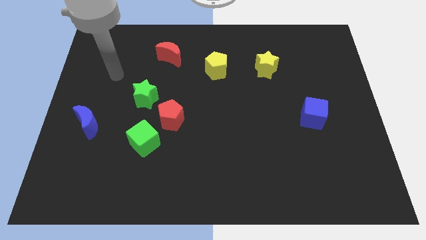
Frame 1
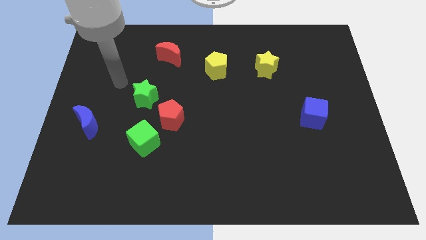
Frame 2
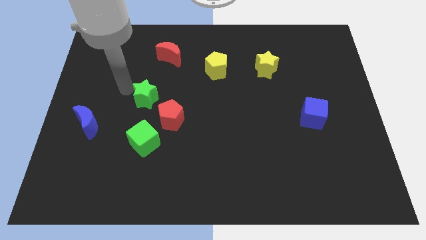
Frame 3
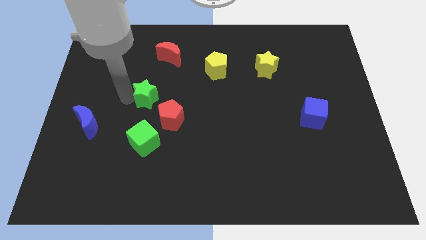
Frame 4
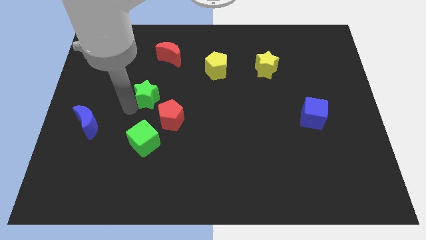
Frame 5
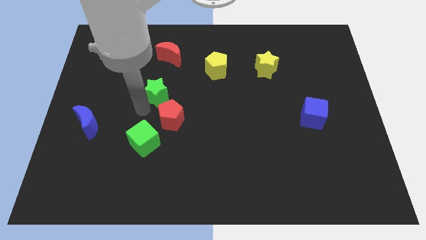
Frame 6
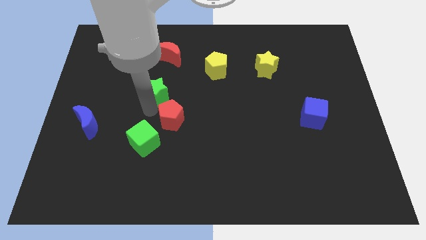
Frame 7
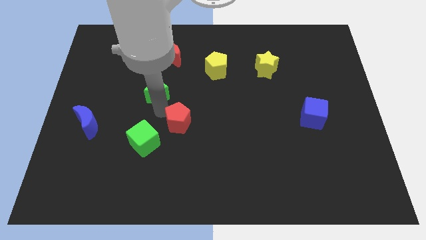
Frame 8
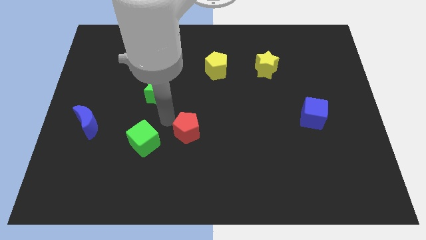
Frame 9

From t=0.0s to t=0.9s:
separate the green cube from the red pentagon

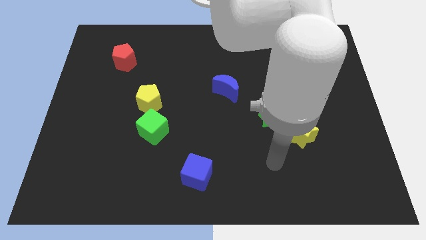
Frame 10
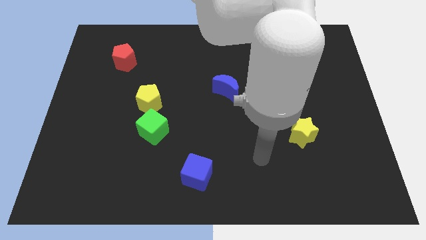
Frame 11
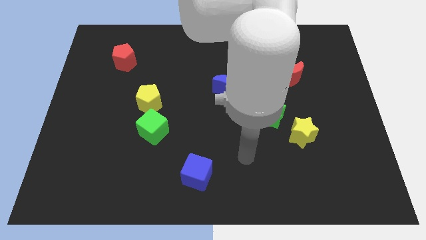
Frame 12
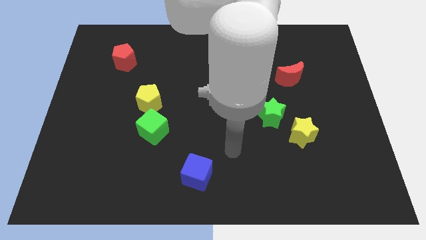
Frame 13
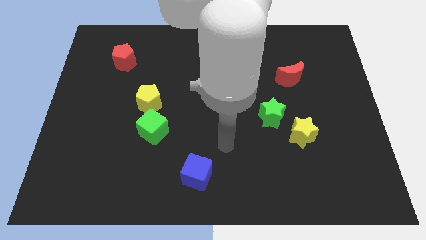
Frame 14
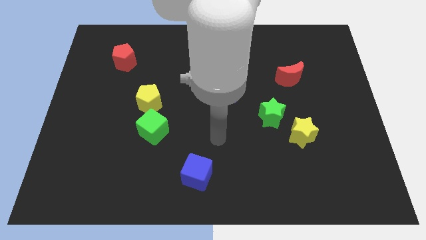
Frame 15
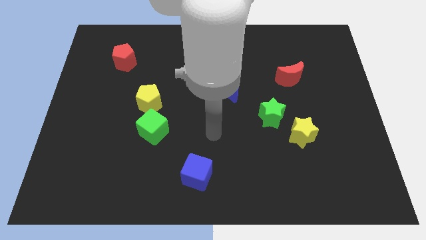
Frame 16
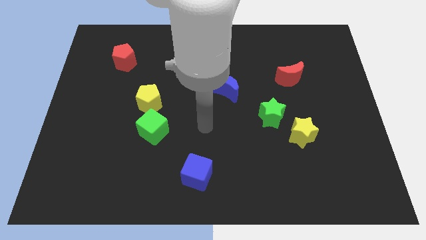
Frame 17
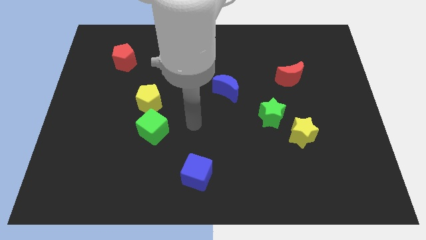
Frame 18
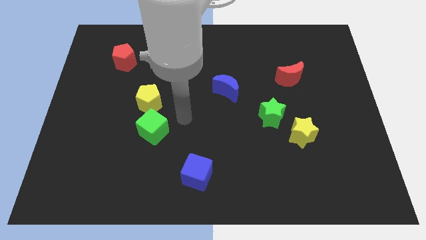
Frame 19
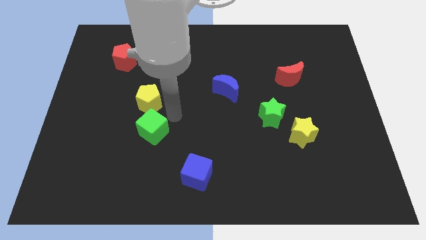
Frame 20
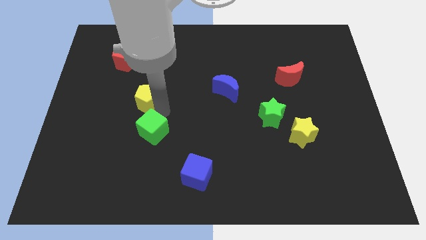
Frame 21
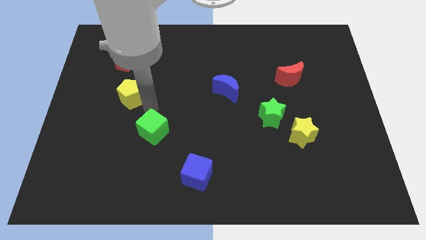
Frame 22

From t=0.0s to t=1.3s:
separate the green cube from the yellow pentagon

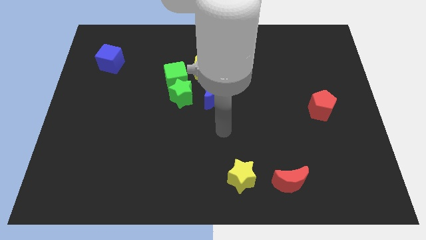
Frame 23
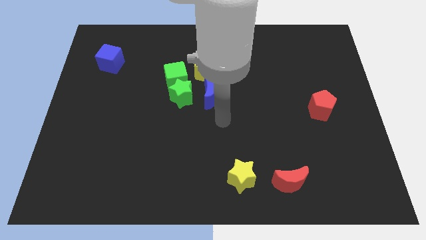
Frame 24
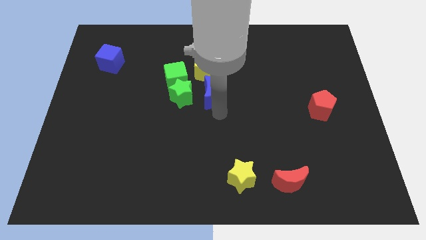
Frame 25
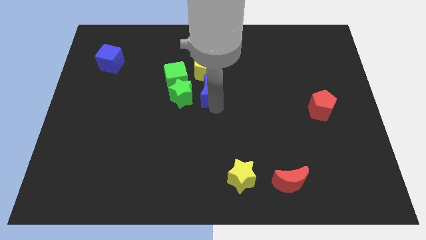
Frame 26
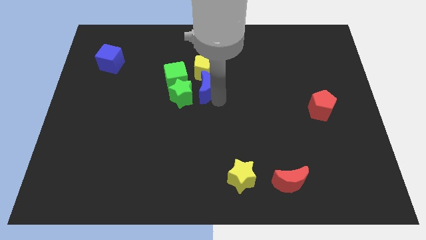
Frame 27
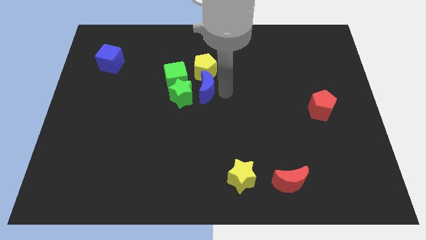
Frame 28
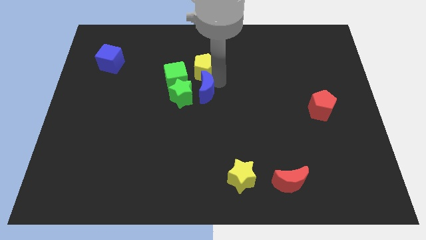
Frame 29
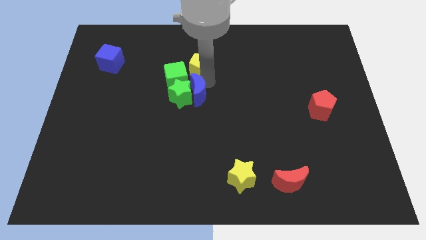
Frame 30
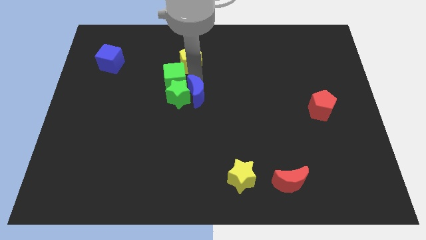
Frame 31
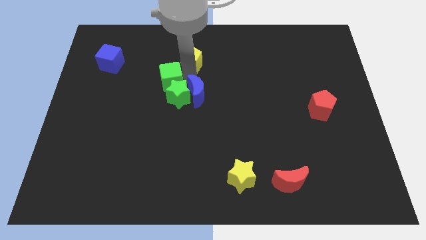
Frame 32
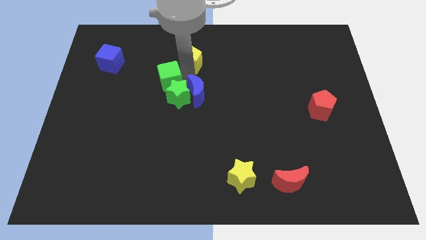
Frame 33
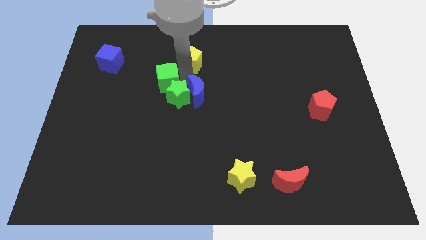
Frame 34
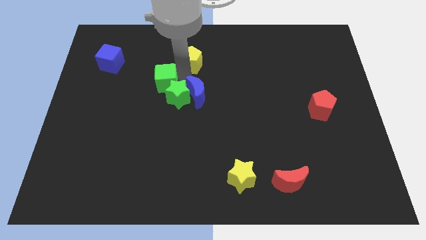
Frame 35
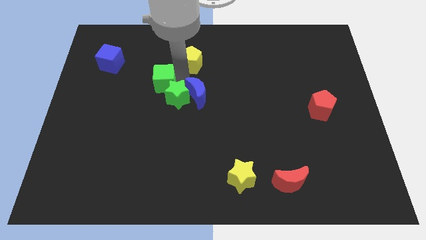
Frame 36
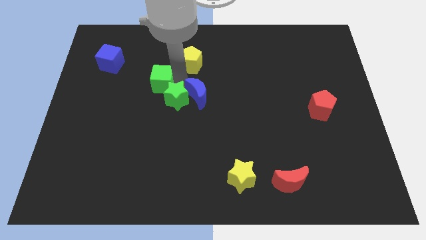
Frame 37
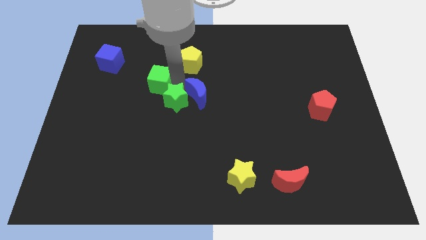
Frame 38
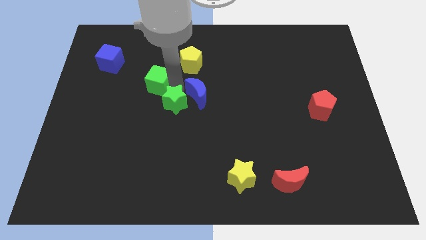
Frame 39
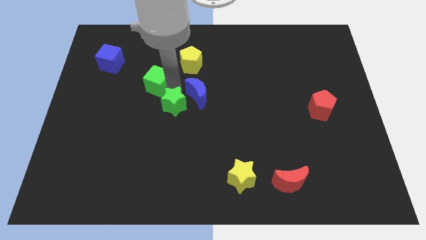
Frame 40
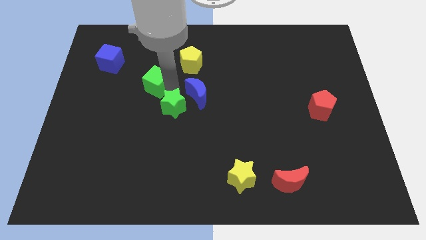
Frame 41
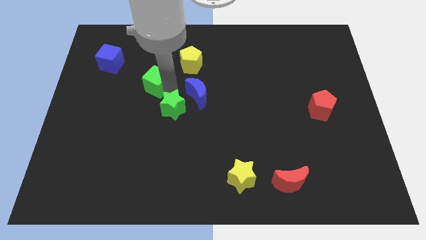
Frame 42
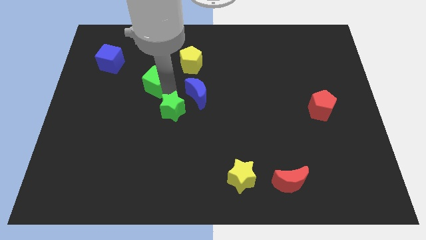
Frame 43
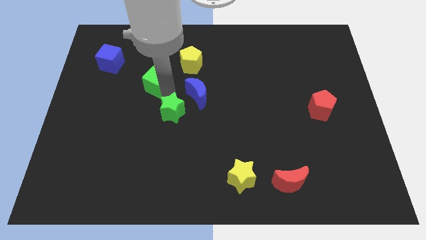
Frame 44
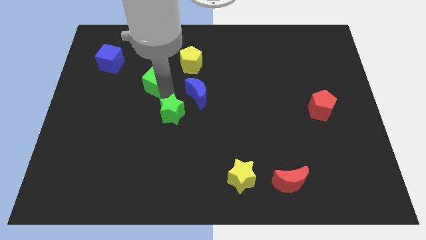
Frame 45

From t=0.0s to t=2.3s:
move the green star away from the green cube, blue moon, and yellow pentagon

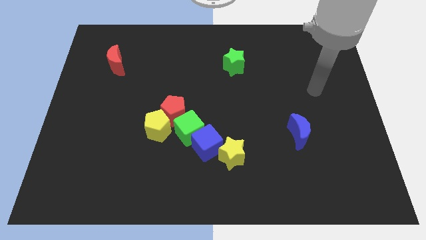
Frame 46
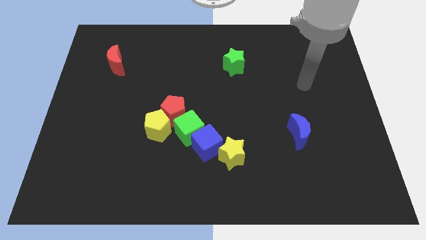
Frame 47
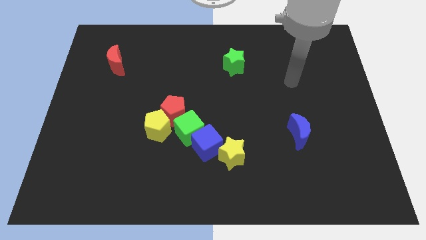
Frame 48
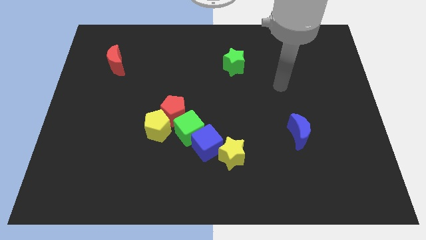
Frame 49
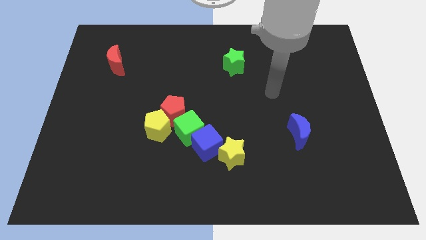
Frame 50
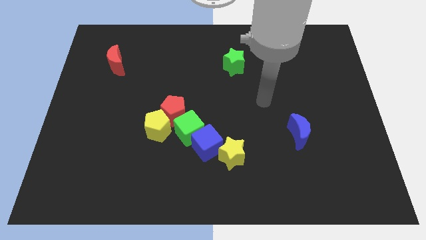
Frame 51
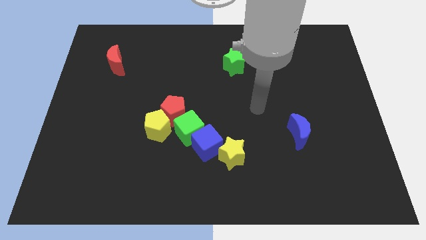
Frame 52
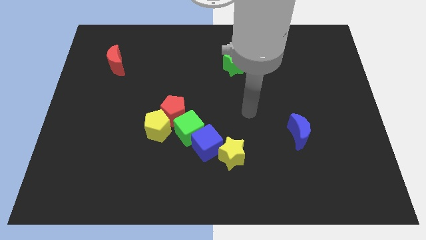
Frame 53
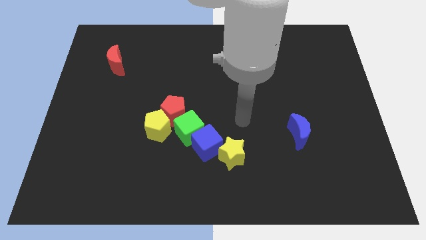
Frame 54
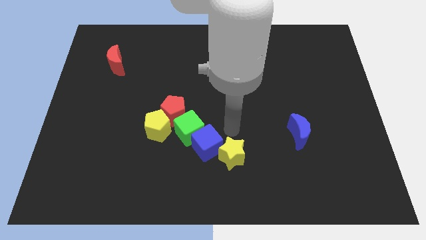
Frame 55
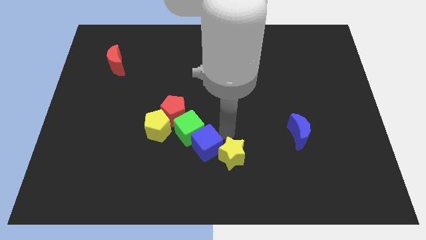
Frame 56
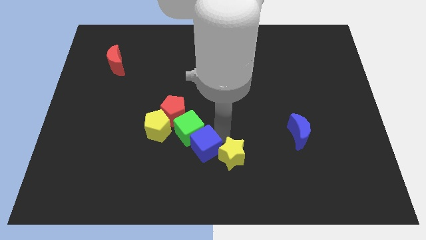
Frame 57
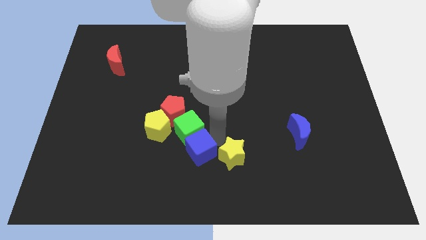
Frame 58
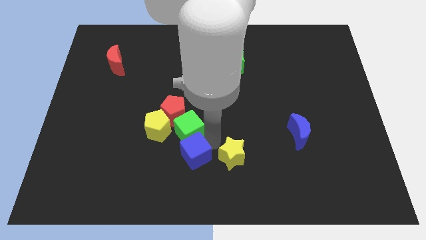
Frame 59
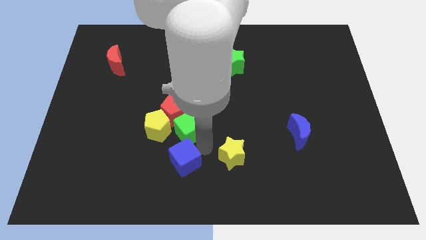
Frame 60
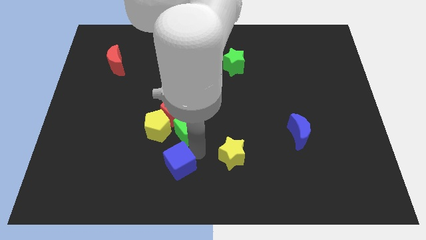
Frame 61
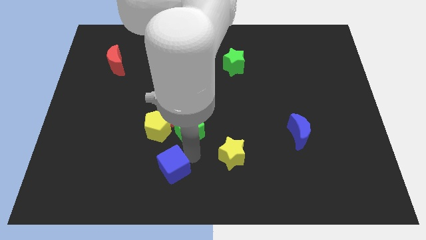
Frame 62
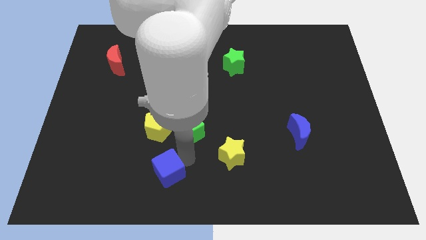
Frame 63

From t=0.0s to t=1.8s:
separate the blue cube from the green cube and yellow star

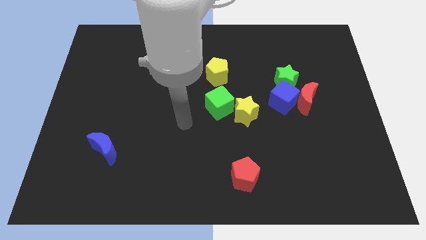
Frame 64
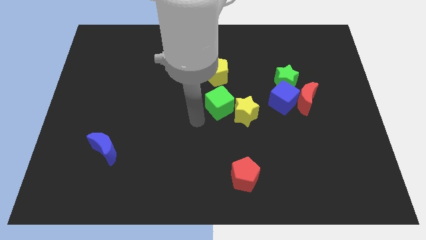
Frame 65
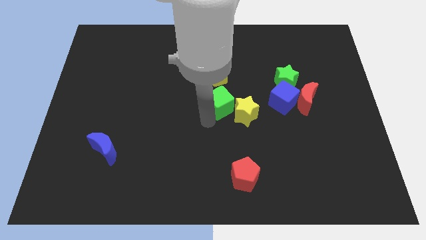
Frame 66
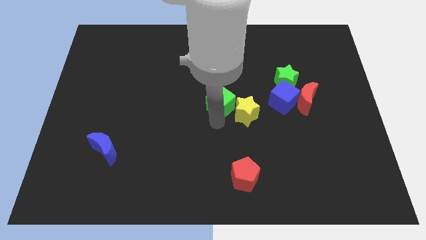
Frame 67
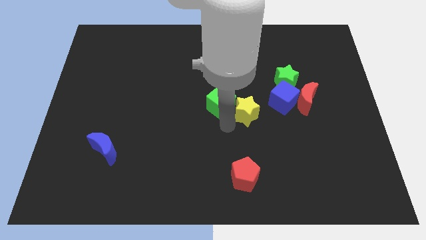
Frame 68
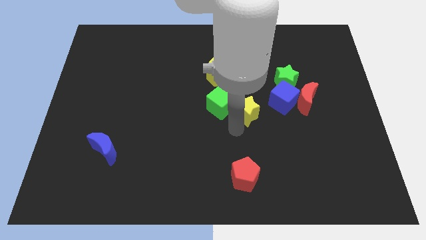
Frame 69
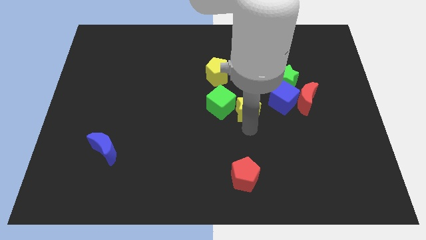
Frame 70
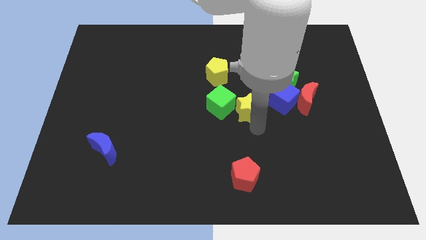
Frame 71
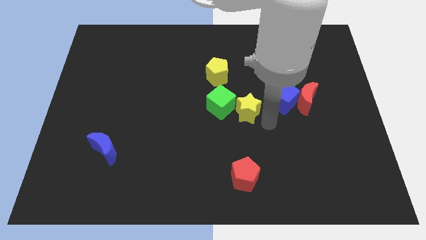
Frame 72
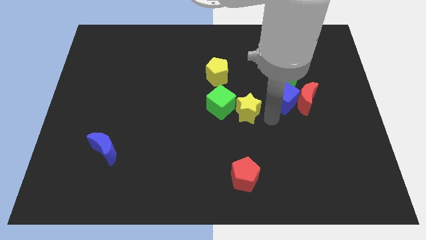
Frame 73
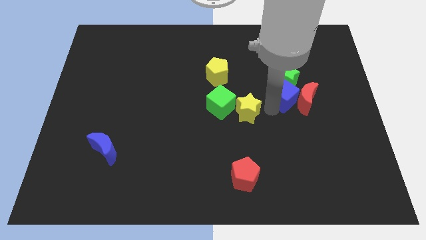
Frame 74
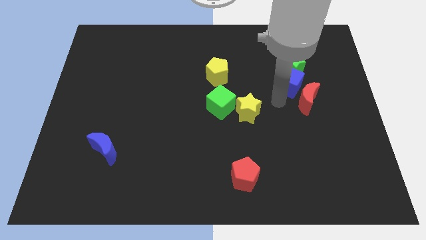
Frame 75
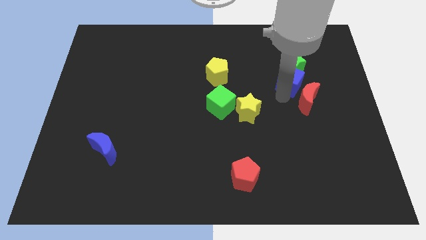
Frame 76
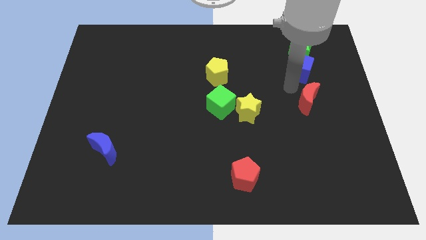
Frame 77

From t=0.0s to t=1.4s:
pull the red moon apart from the blue cube and green star

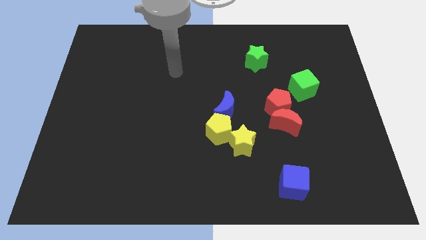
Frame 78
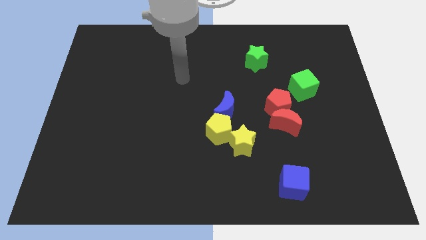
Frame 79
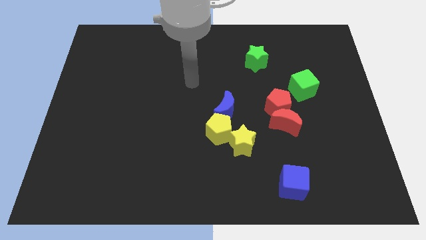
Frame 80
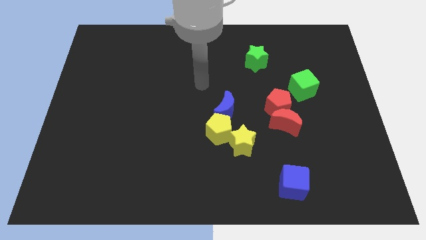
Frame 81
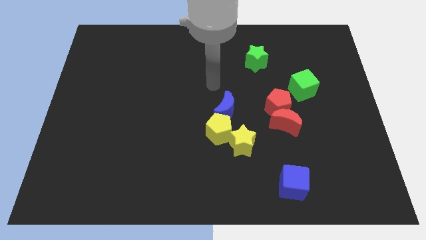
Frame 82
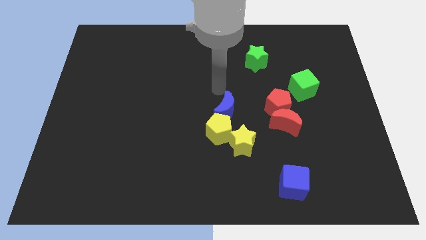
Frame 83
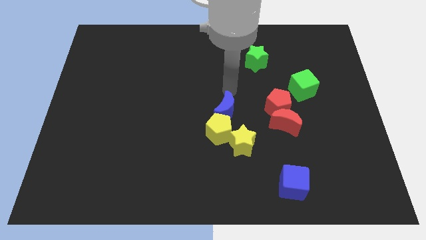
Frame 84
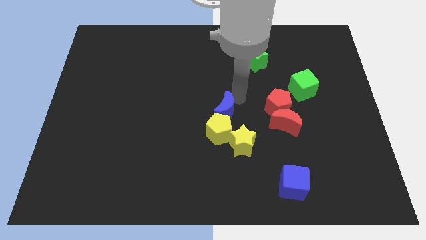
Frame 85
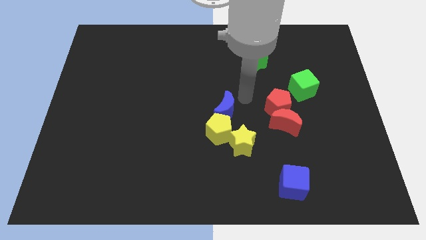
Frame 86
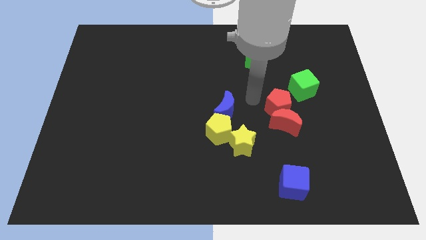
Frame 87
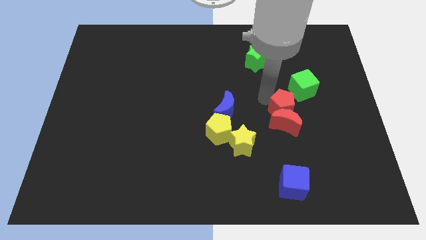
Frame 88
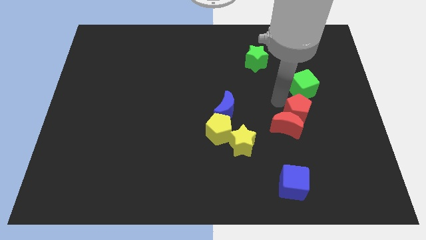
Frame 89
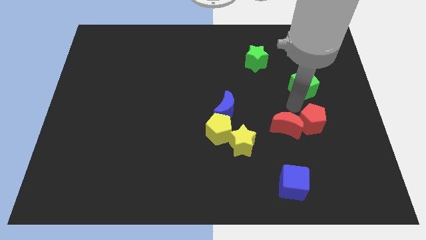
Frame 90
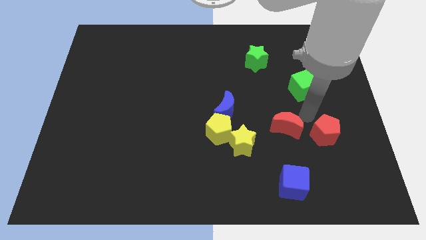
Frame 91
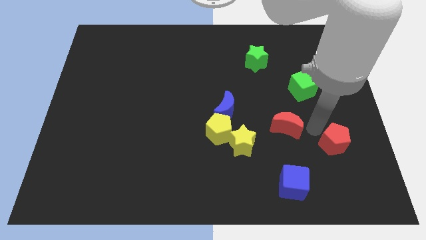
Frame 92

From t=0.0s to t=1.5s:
move the red moon away from the red pentagon
